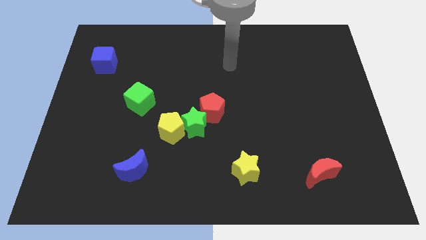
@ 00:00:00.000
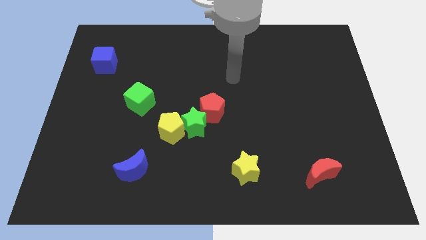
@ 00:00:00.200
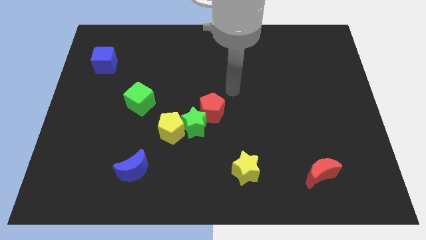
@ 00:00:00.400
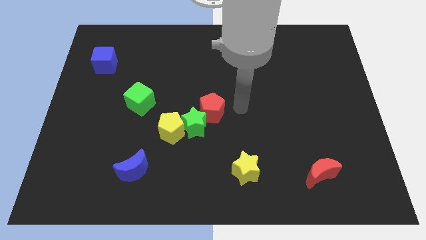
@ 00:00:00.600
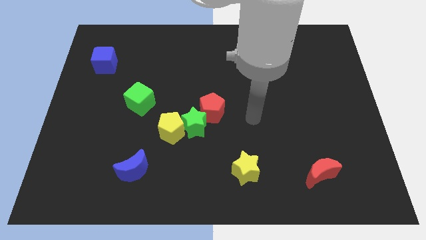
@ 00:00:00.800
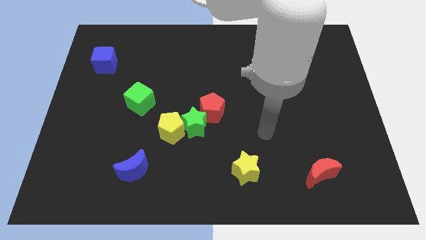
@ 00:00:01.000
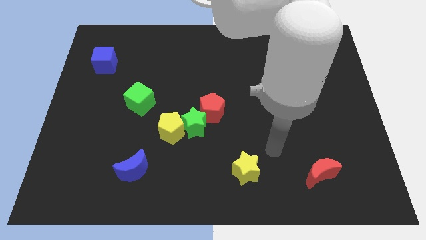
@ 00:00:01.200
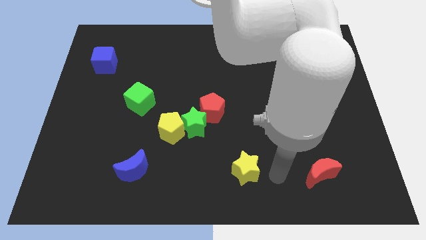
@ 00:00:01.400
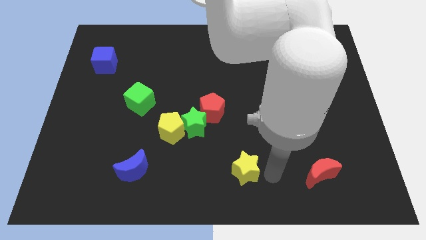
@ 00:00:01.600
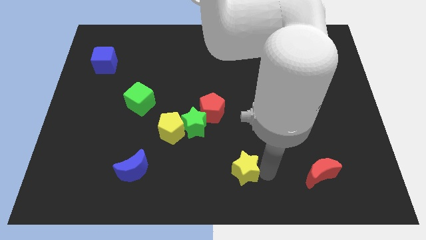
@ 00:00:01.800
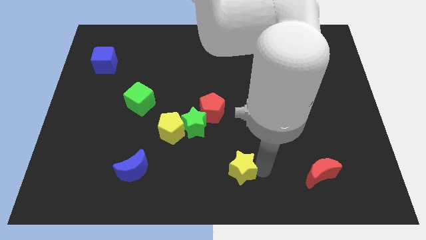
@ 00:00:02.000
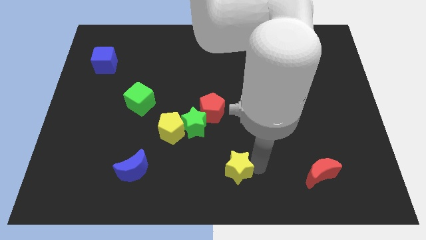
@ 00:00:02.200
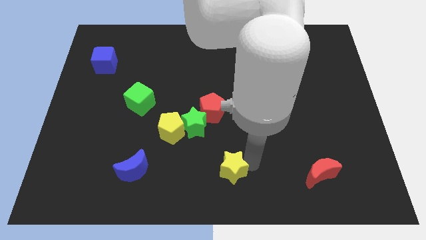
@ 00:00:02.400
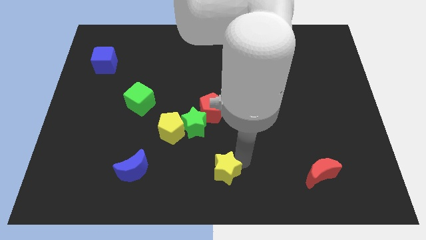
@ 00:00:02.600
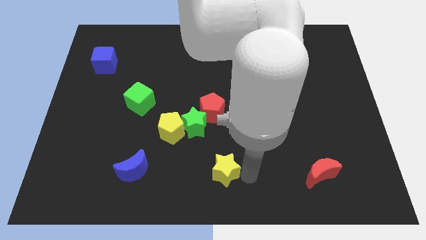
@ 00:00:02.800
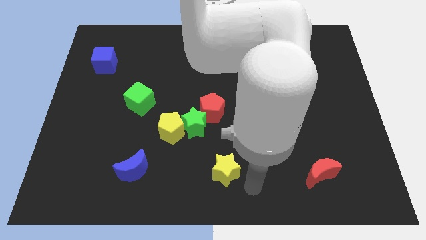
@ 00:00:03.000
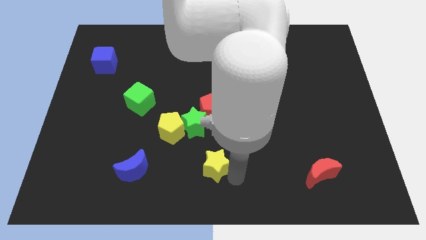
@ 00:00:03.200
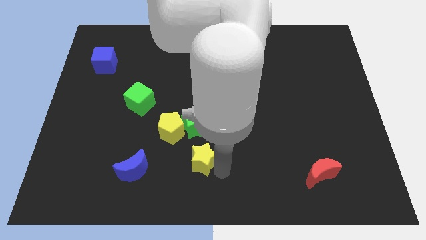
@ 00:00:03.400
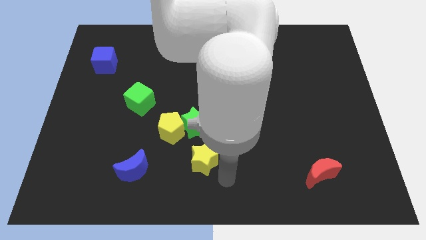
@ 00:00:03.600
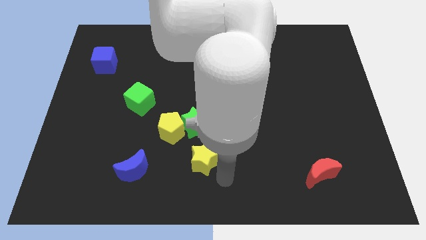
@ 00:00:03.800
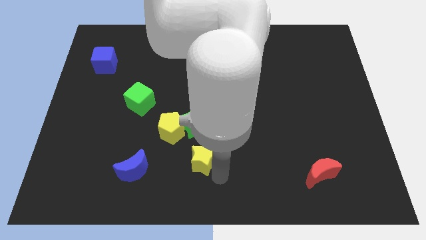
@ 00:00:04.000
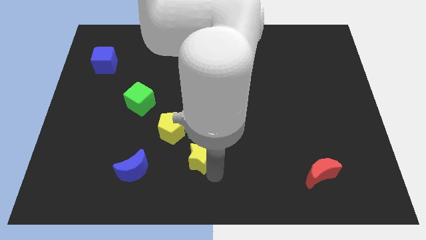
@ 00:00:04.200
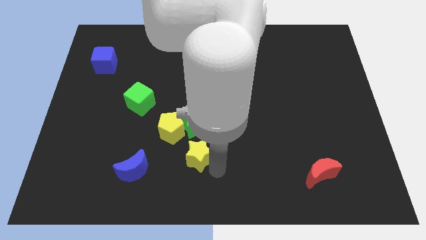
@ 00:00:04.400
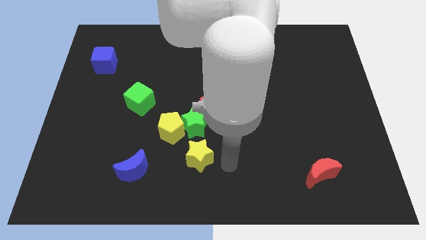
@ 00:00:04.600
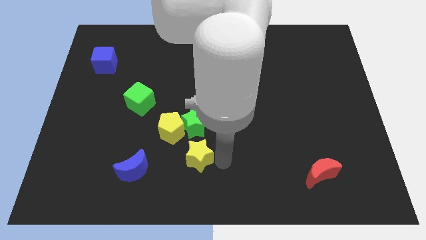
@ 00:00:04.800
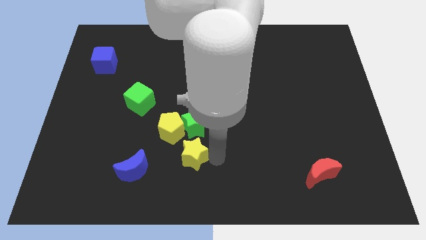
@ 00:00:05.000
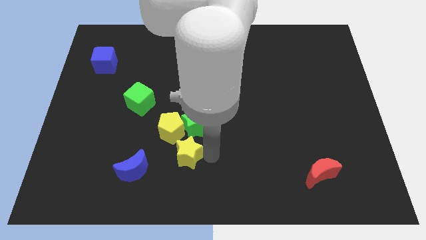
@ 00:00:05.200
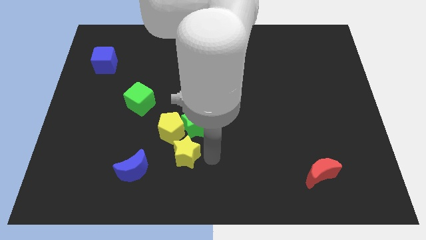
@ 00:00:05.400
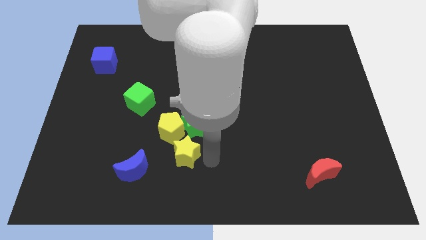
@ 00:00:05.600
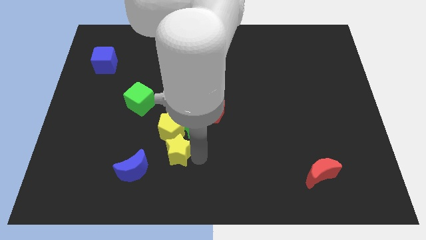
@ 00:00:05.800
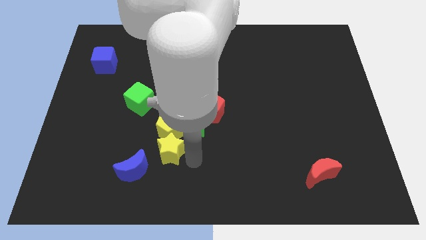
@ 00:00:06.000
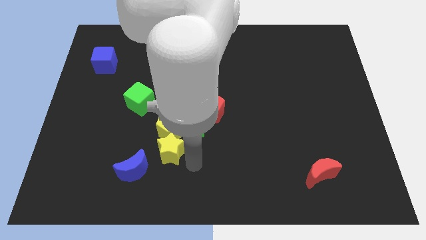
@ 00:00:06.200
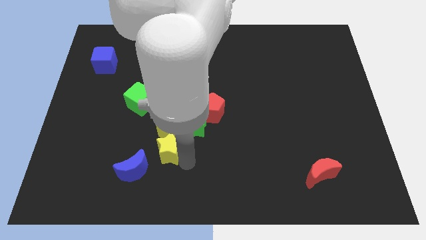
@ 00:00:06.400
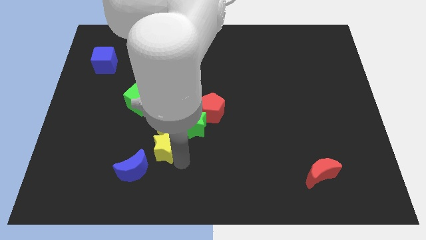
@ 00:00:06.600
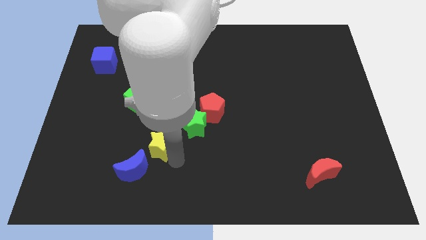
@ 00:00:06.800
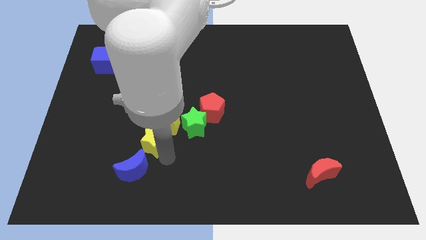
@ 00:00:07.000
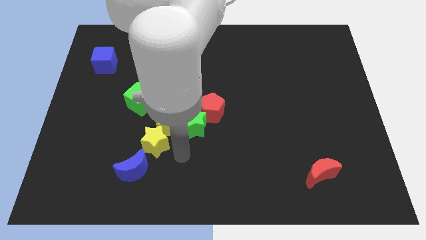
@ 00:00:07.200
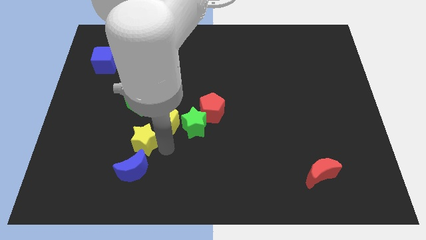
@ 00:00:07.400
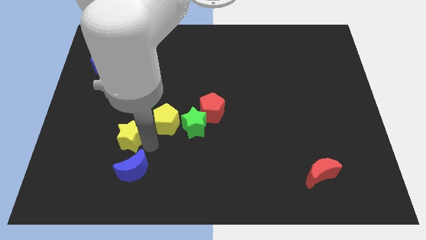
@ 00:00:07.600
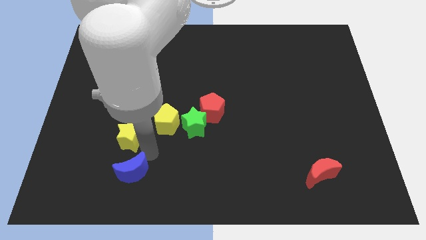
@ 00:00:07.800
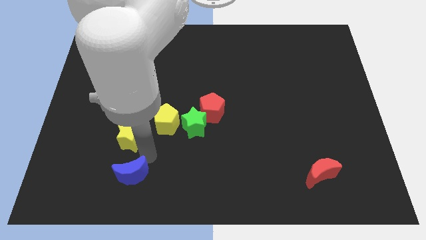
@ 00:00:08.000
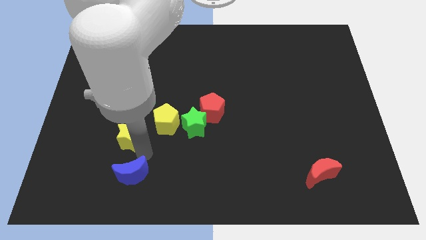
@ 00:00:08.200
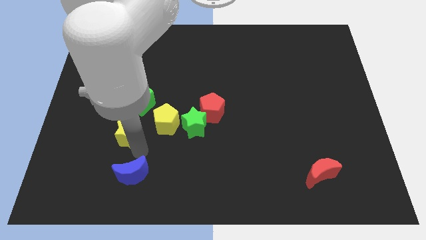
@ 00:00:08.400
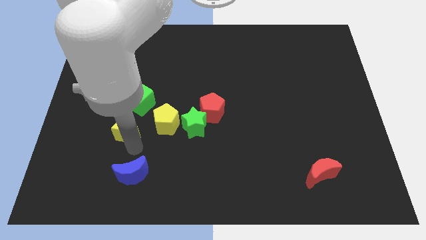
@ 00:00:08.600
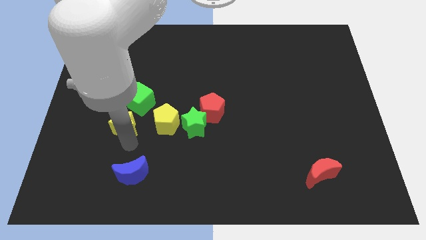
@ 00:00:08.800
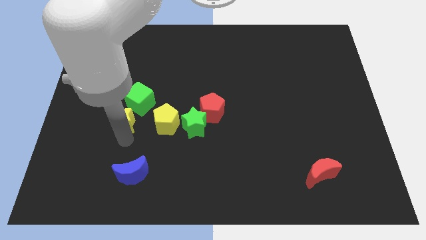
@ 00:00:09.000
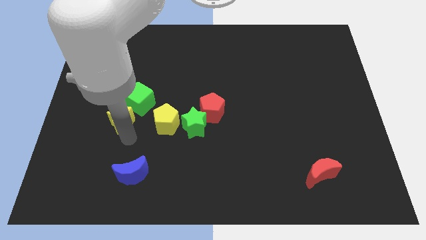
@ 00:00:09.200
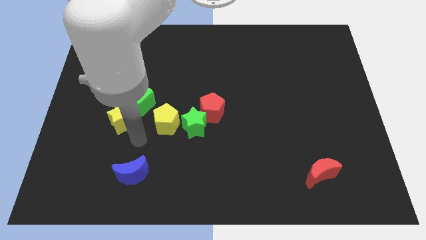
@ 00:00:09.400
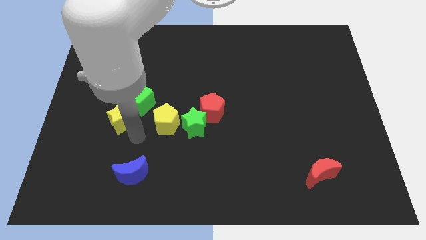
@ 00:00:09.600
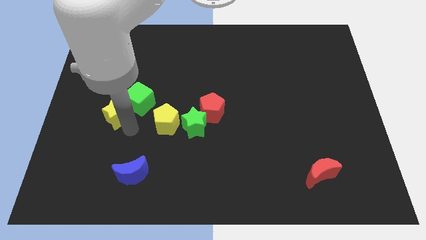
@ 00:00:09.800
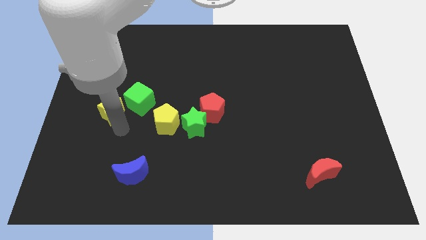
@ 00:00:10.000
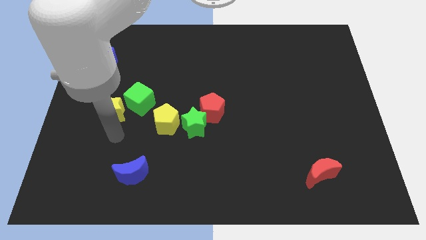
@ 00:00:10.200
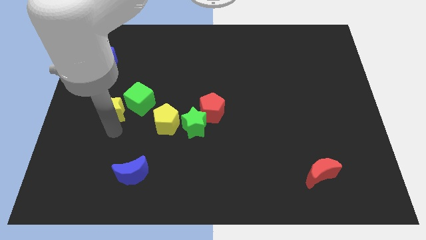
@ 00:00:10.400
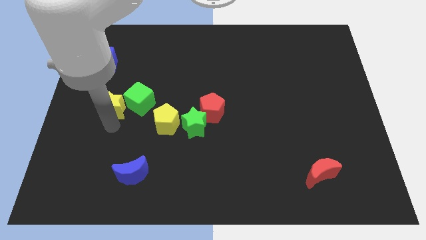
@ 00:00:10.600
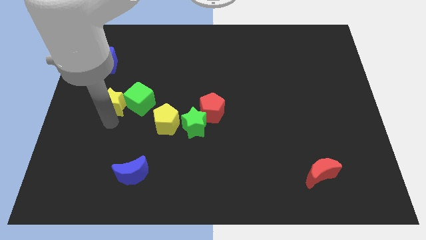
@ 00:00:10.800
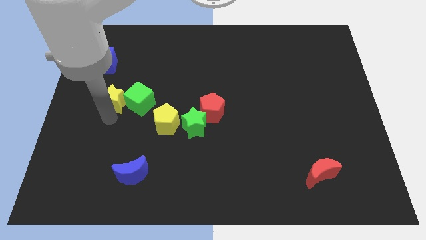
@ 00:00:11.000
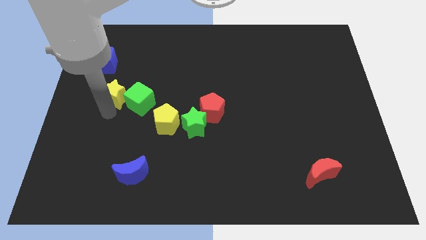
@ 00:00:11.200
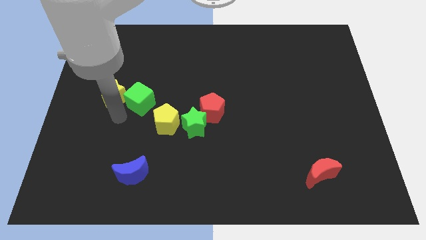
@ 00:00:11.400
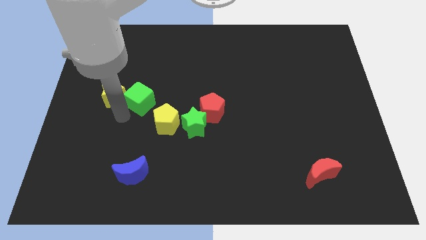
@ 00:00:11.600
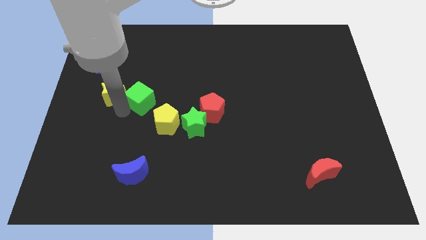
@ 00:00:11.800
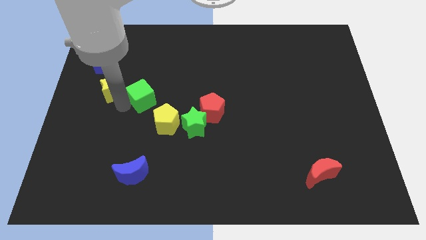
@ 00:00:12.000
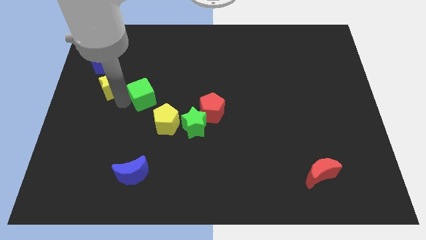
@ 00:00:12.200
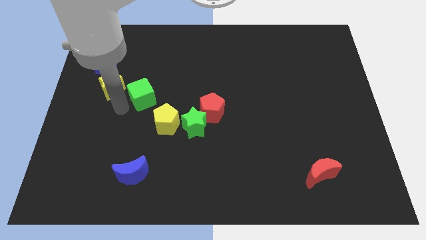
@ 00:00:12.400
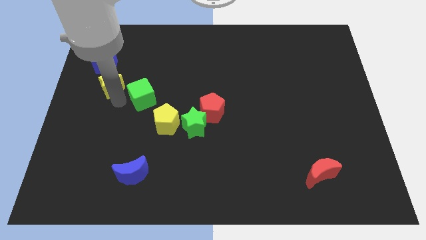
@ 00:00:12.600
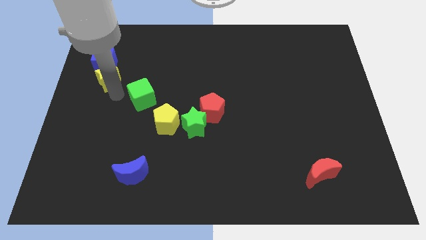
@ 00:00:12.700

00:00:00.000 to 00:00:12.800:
move the yellow star to the blue cube
